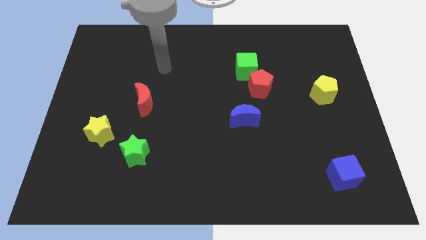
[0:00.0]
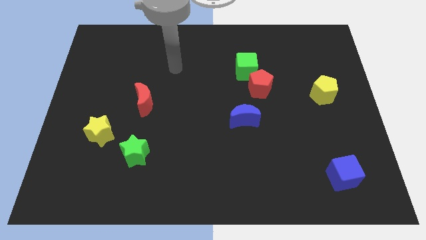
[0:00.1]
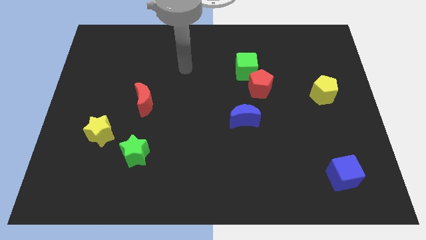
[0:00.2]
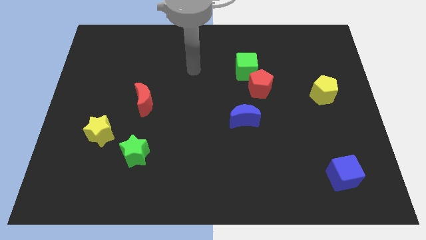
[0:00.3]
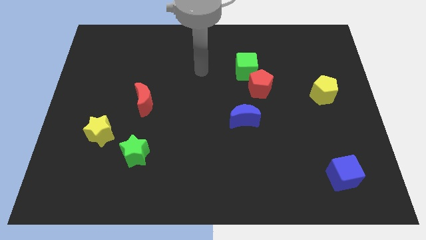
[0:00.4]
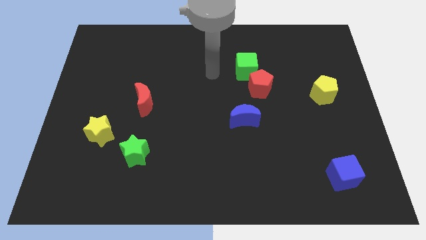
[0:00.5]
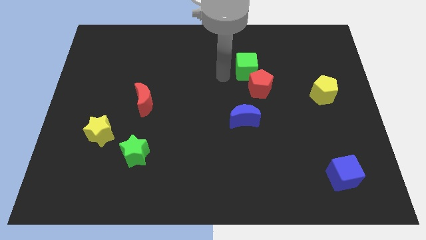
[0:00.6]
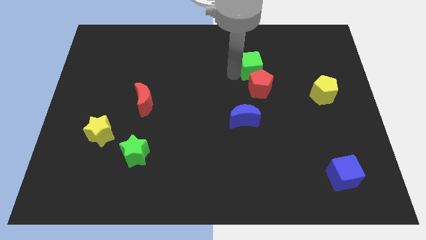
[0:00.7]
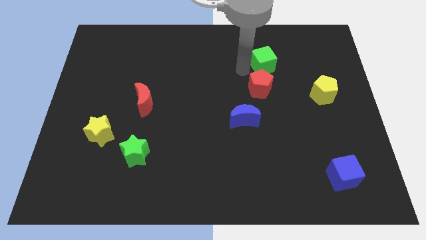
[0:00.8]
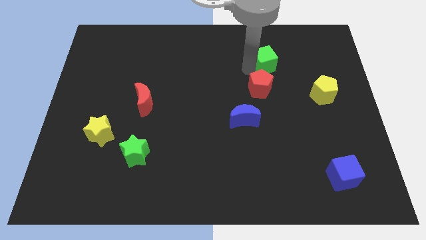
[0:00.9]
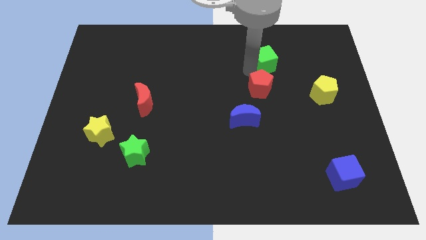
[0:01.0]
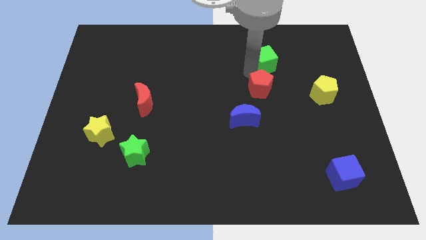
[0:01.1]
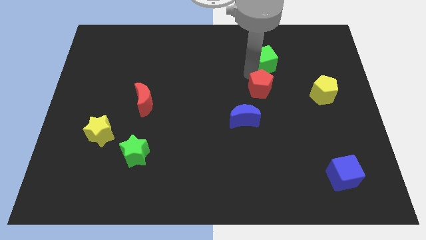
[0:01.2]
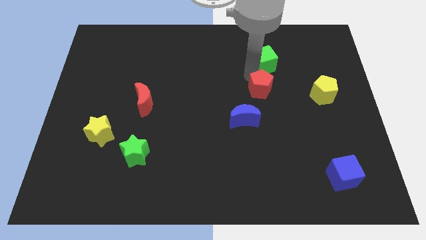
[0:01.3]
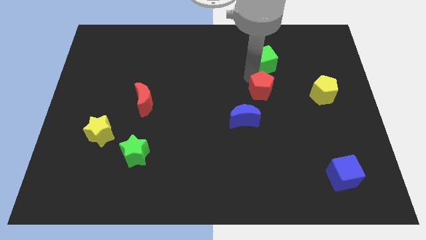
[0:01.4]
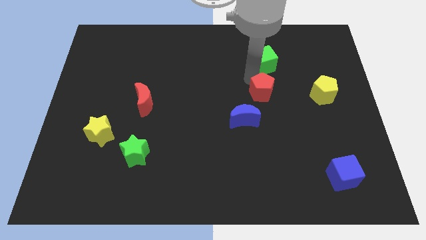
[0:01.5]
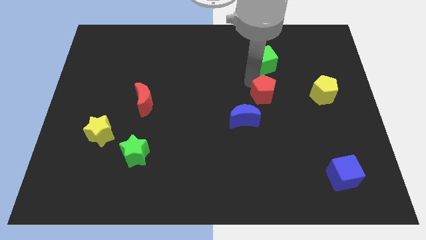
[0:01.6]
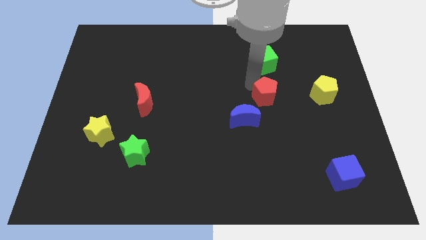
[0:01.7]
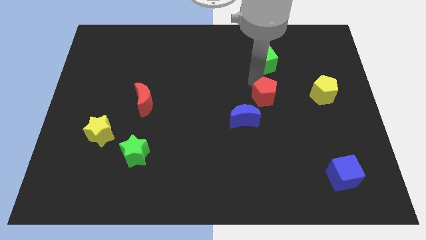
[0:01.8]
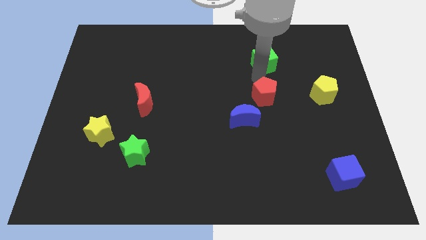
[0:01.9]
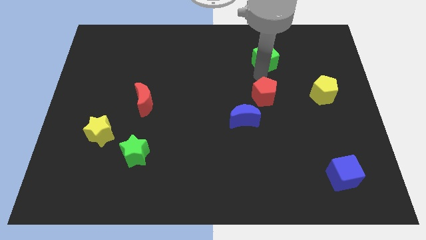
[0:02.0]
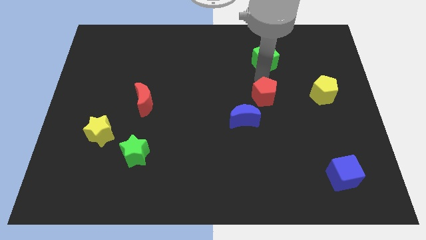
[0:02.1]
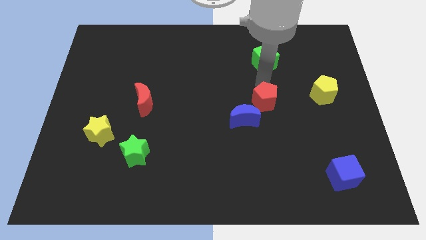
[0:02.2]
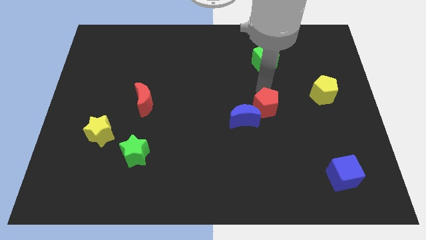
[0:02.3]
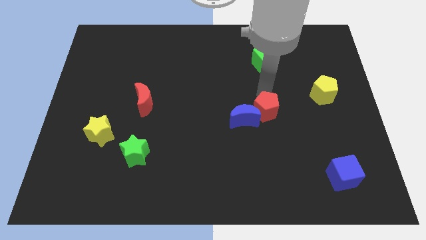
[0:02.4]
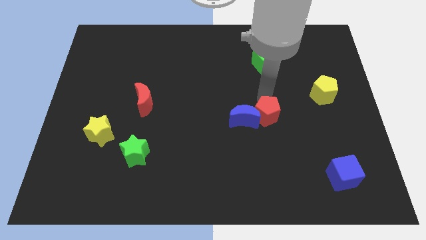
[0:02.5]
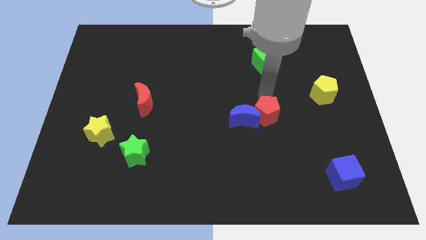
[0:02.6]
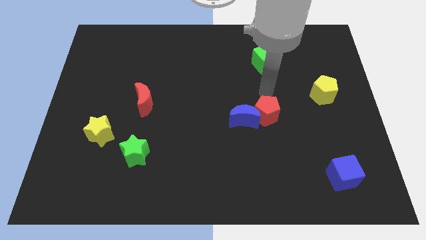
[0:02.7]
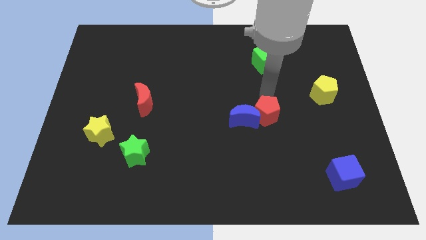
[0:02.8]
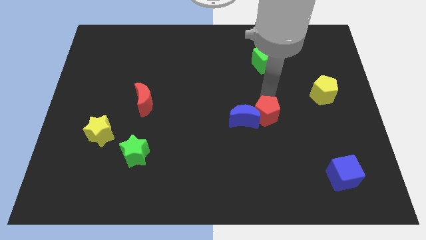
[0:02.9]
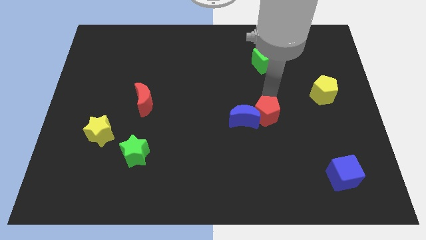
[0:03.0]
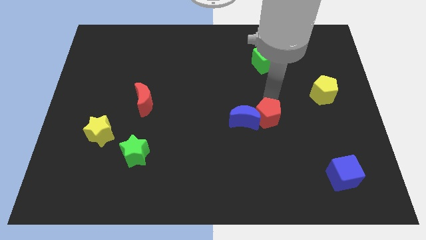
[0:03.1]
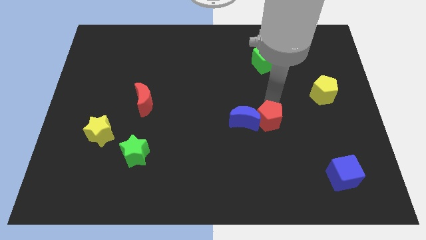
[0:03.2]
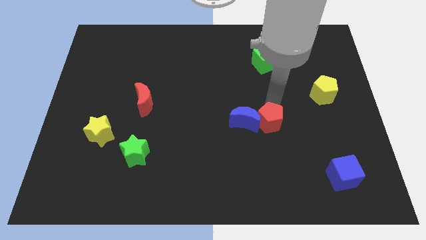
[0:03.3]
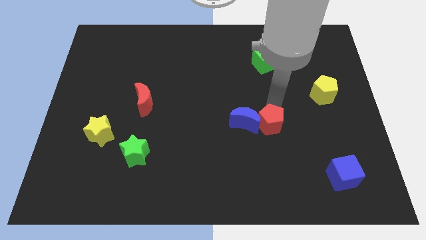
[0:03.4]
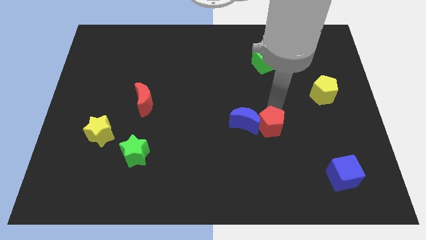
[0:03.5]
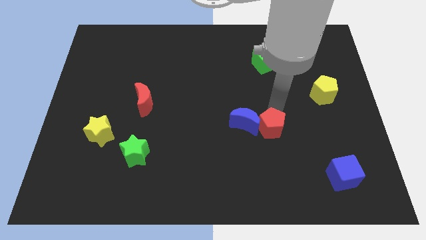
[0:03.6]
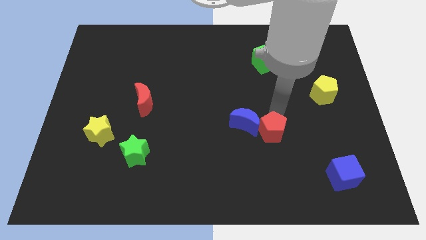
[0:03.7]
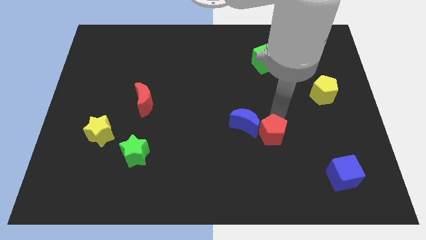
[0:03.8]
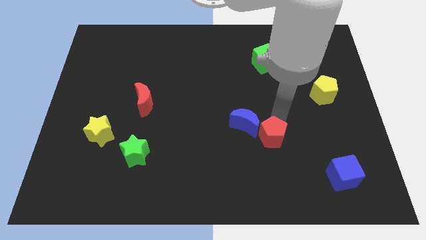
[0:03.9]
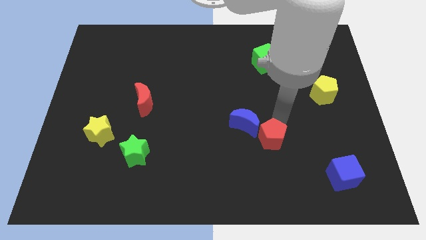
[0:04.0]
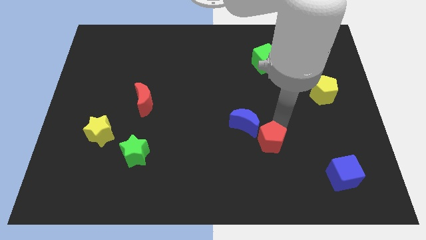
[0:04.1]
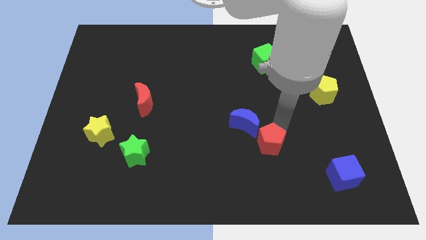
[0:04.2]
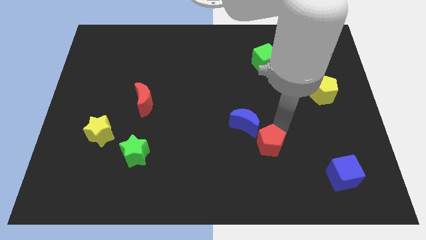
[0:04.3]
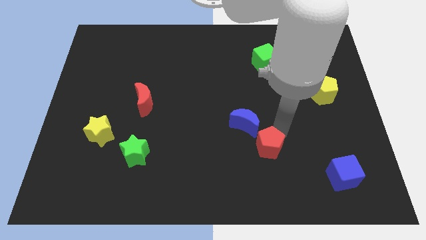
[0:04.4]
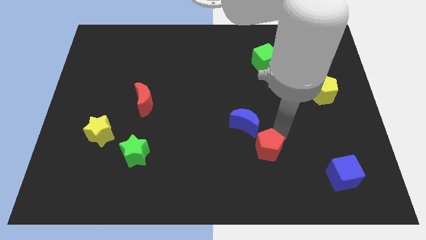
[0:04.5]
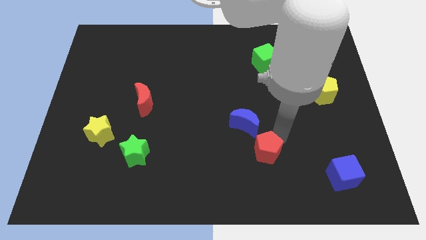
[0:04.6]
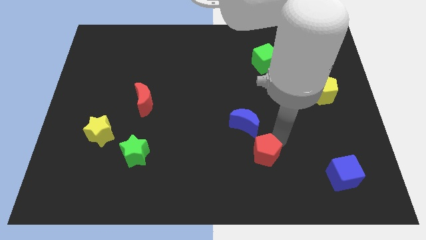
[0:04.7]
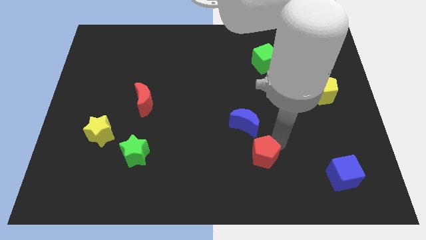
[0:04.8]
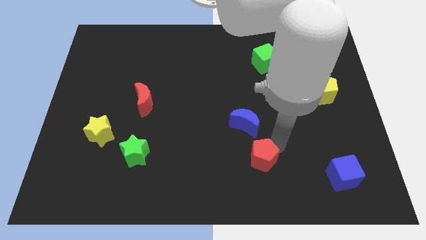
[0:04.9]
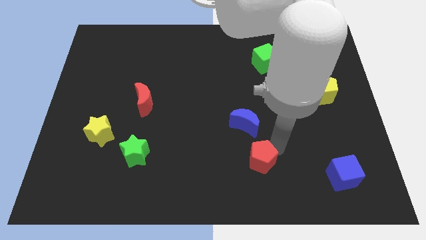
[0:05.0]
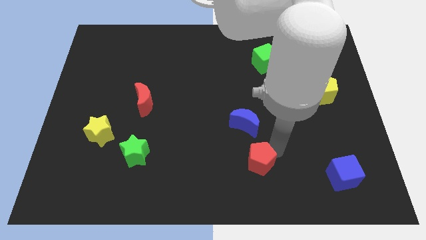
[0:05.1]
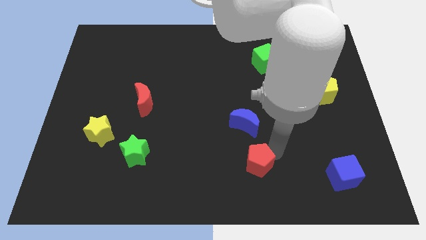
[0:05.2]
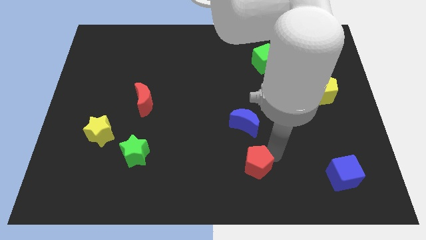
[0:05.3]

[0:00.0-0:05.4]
slide the red pentagon to the bottom

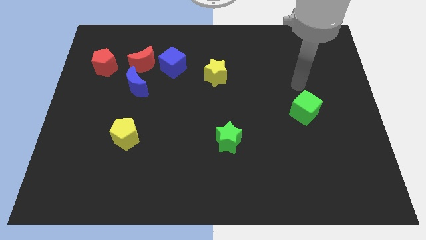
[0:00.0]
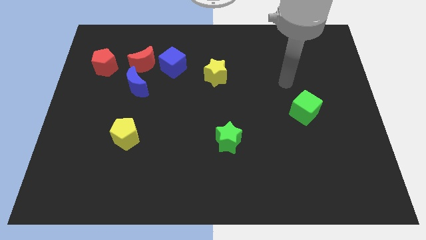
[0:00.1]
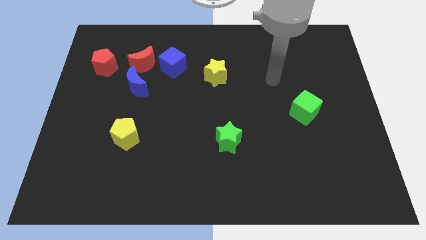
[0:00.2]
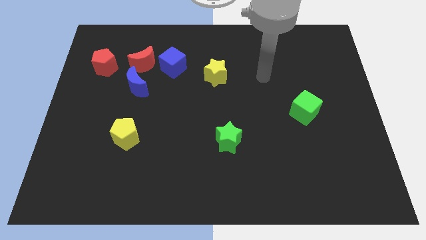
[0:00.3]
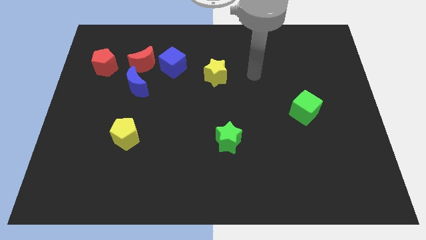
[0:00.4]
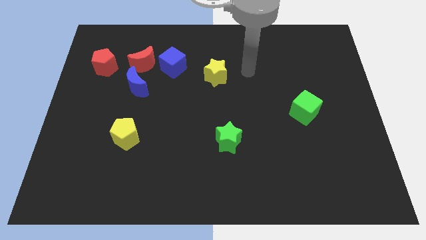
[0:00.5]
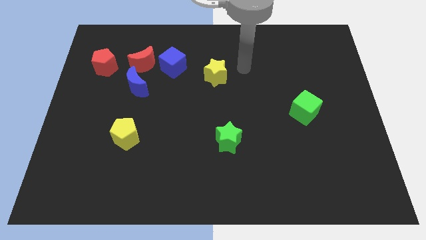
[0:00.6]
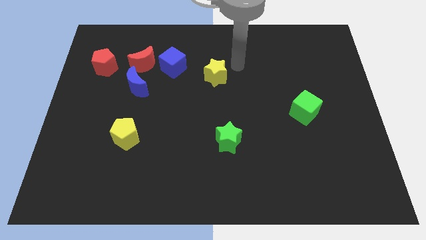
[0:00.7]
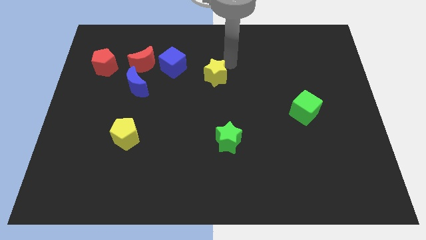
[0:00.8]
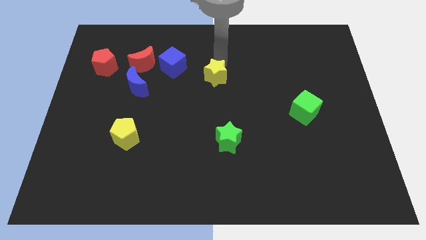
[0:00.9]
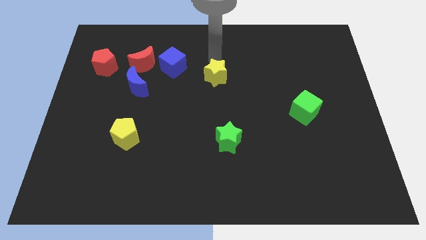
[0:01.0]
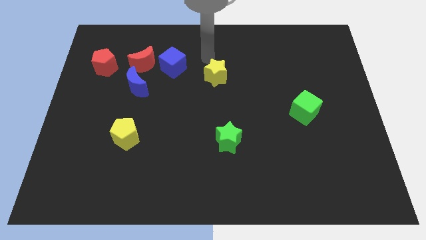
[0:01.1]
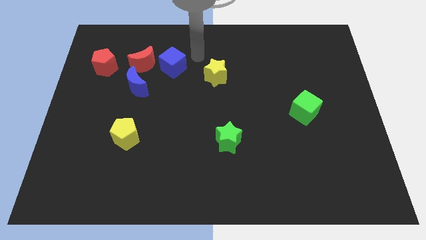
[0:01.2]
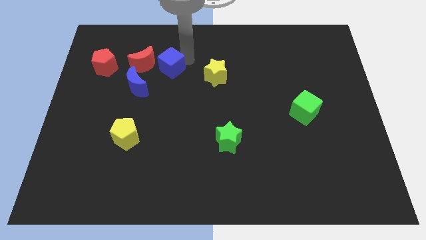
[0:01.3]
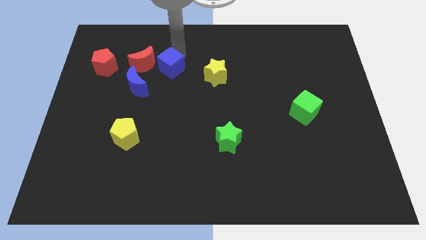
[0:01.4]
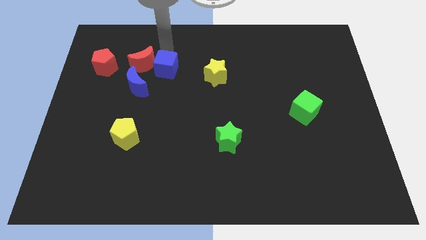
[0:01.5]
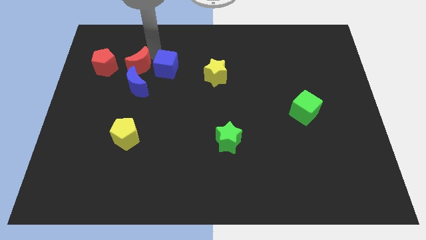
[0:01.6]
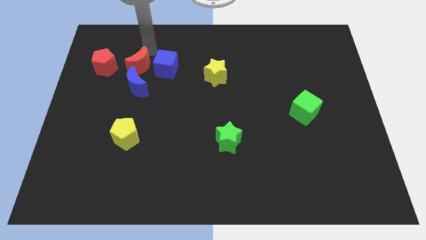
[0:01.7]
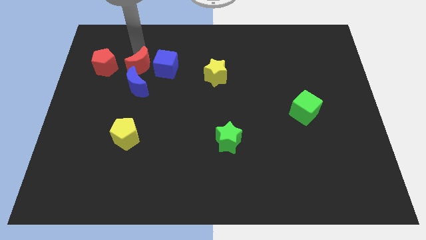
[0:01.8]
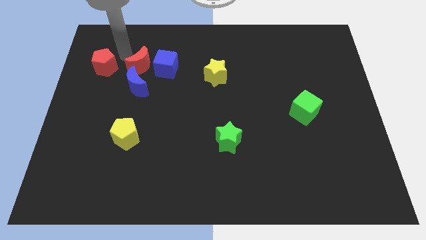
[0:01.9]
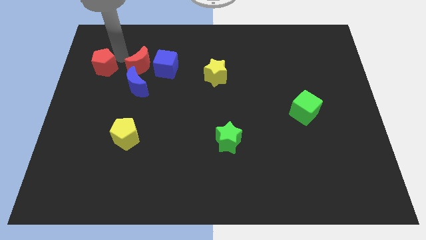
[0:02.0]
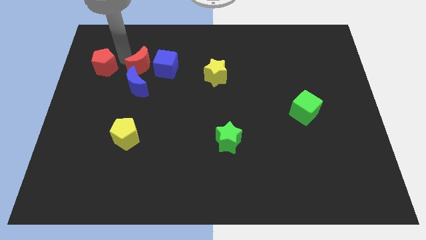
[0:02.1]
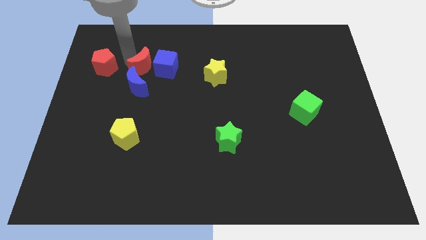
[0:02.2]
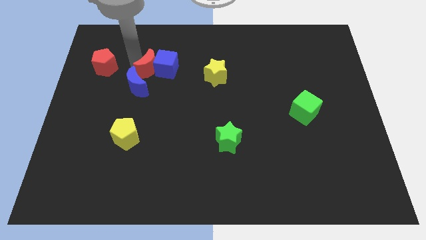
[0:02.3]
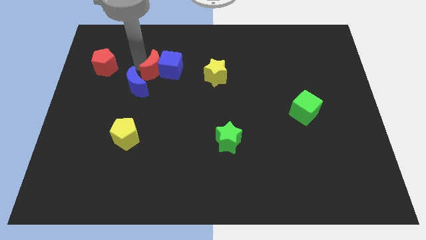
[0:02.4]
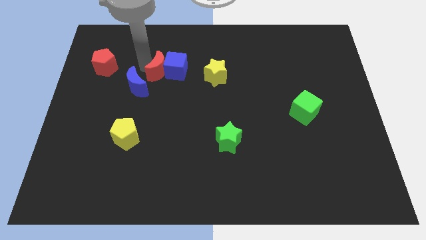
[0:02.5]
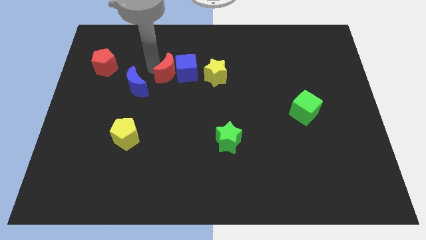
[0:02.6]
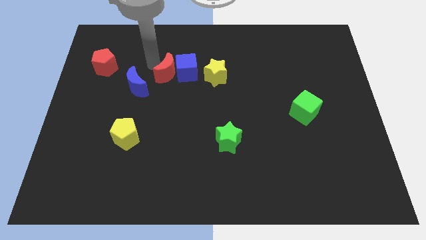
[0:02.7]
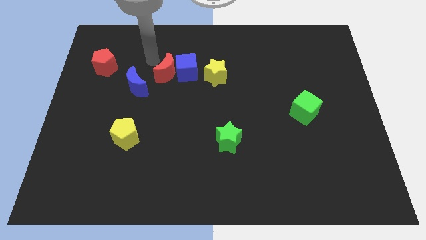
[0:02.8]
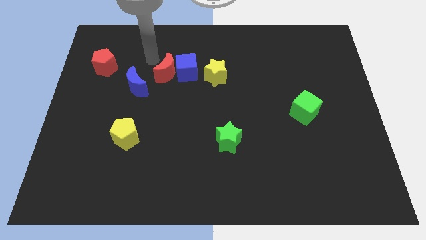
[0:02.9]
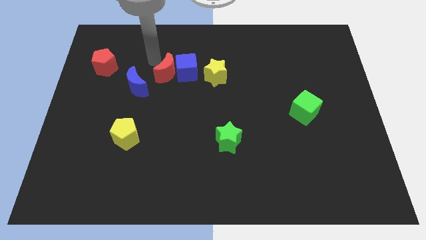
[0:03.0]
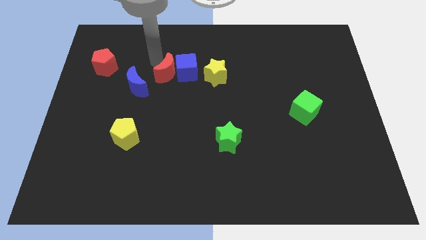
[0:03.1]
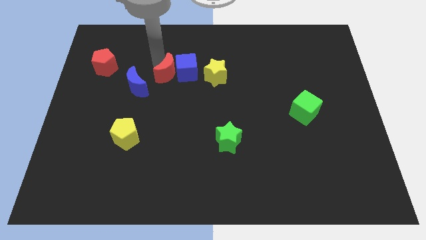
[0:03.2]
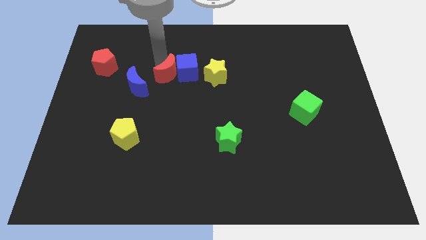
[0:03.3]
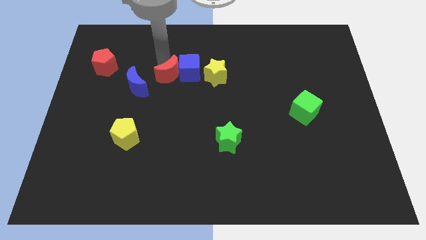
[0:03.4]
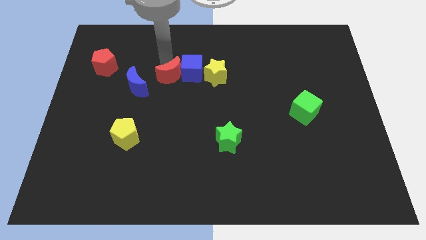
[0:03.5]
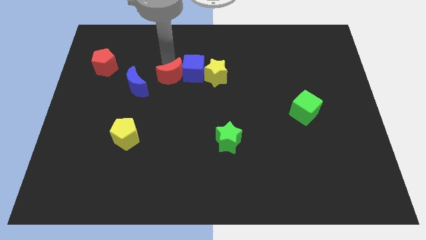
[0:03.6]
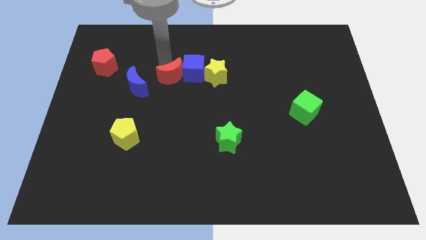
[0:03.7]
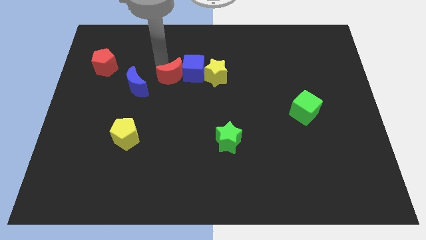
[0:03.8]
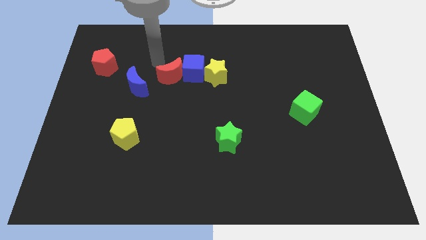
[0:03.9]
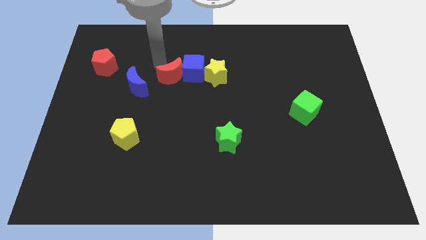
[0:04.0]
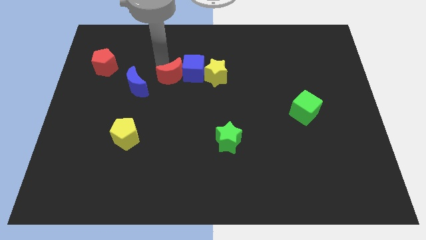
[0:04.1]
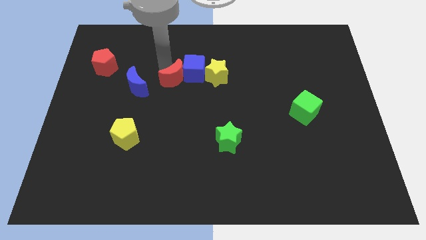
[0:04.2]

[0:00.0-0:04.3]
push the red moon to the middle
